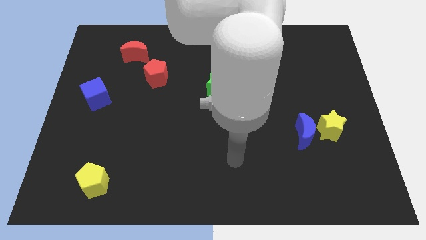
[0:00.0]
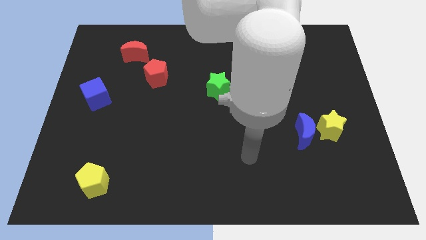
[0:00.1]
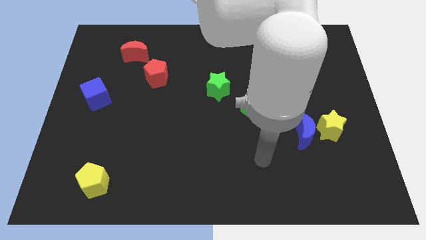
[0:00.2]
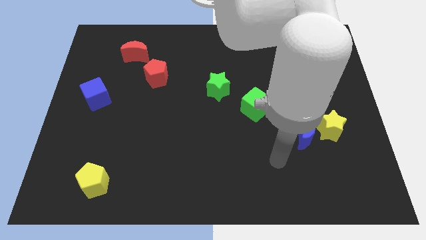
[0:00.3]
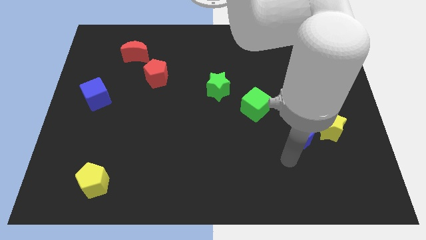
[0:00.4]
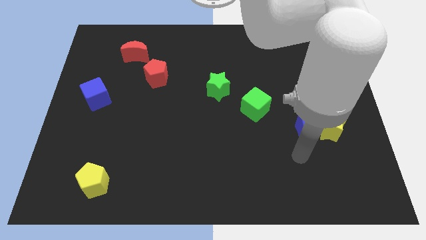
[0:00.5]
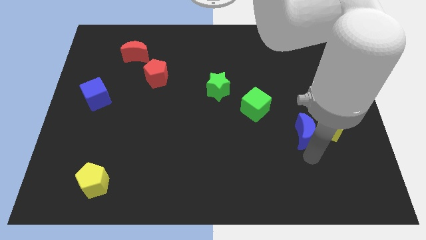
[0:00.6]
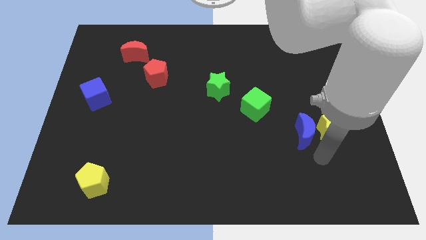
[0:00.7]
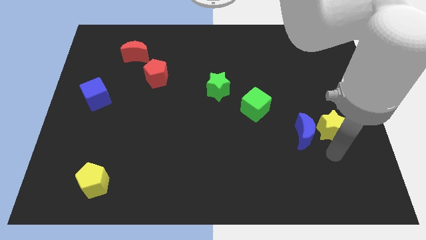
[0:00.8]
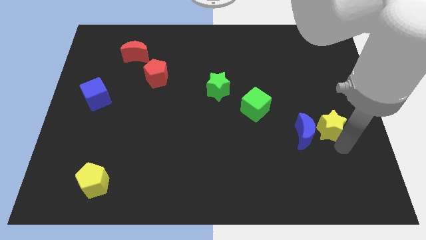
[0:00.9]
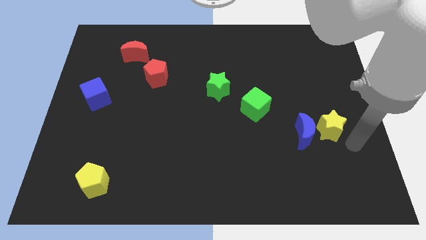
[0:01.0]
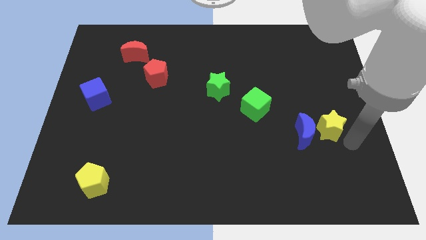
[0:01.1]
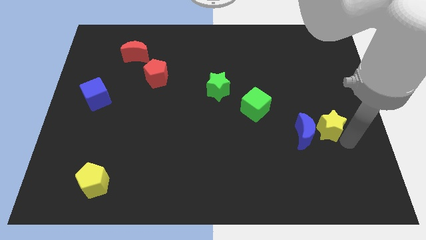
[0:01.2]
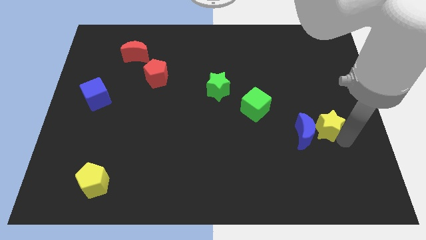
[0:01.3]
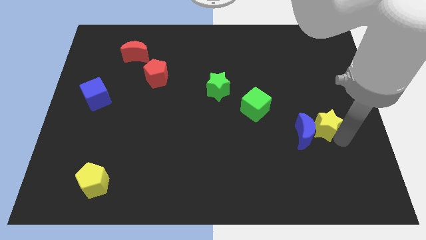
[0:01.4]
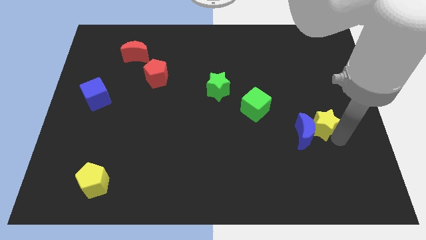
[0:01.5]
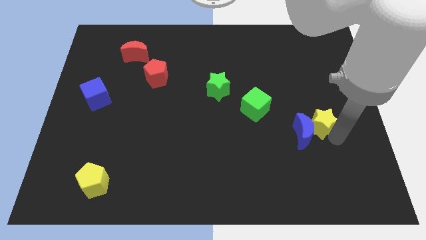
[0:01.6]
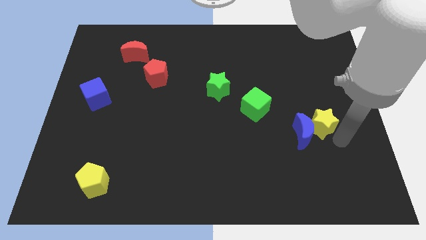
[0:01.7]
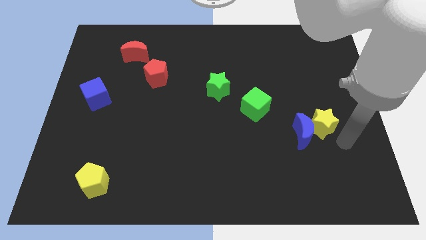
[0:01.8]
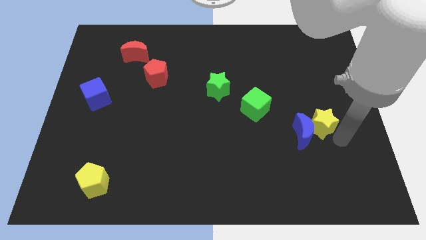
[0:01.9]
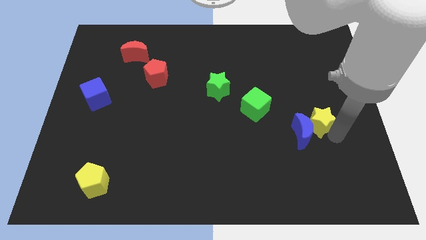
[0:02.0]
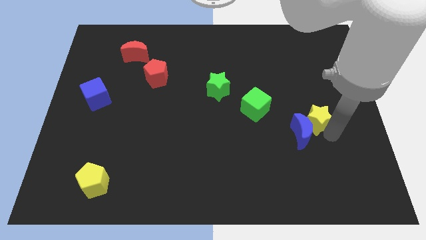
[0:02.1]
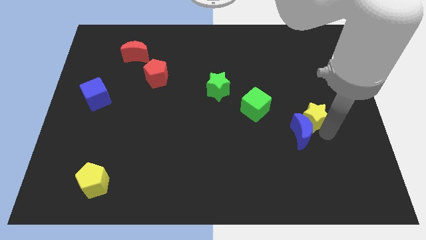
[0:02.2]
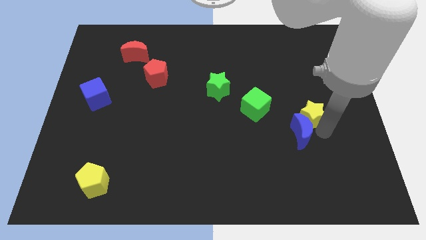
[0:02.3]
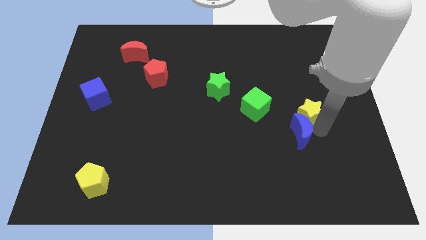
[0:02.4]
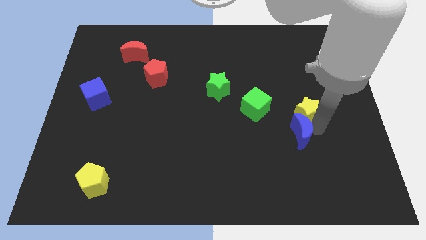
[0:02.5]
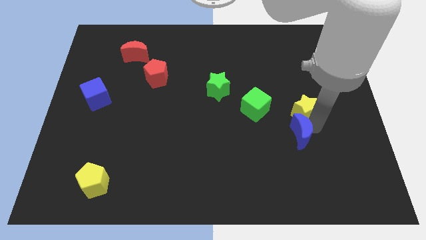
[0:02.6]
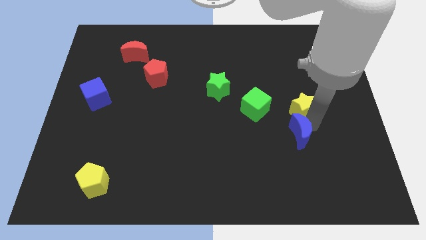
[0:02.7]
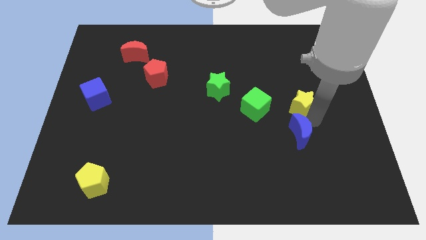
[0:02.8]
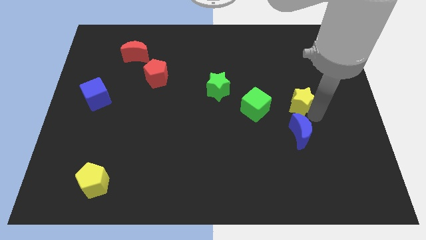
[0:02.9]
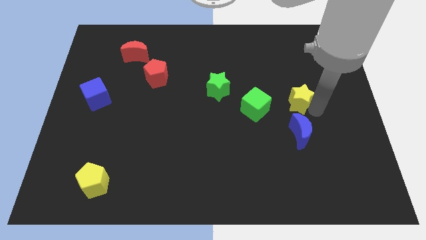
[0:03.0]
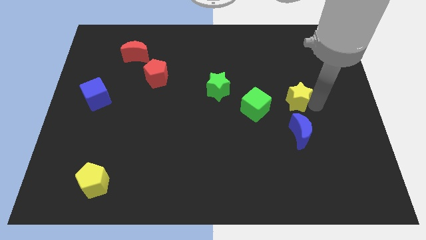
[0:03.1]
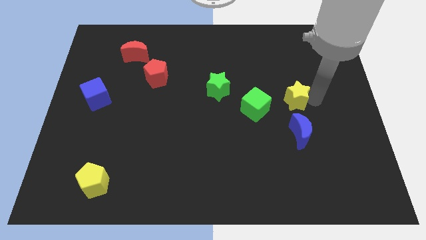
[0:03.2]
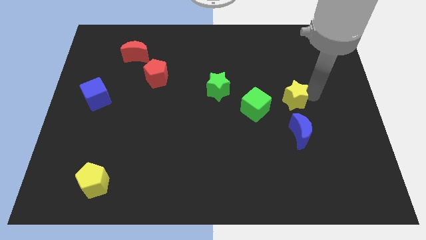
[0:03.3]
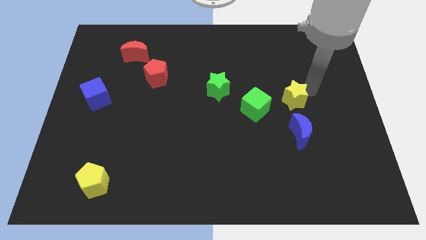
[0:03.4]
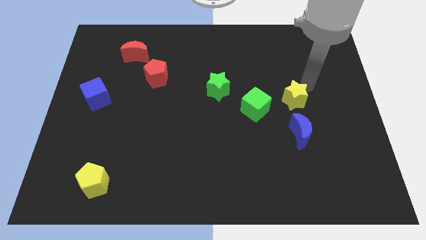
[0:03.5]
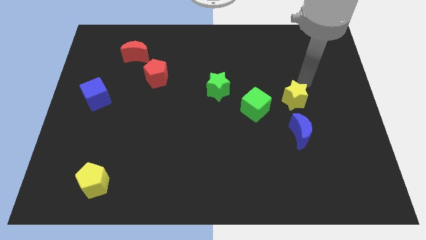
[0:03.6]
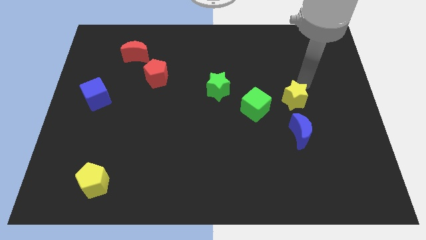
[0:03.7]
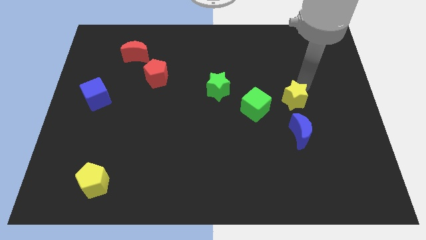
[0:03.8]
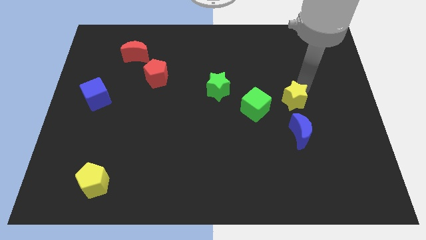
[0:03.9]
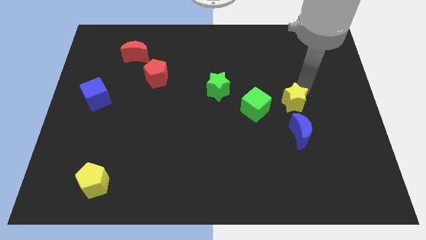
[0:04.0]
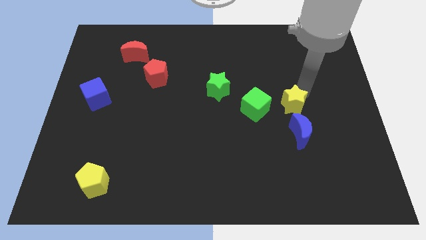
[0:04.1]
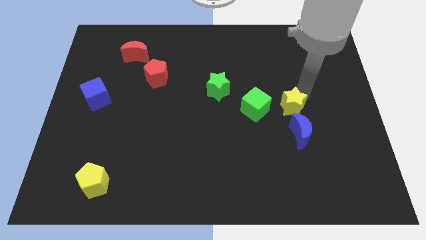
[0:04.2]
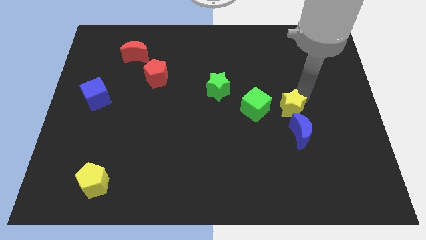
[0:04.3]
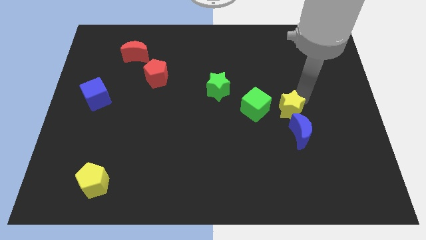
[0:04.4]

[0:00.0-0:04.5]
slightly slide the yellow star left

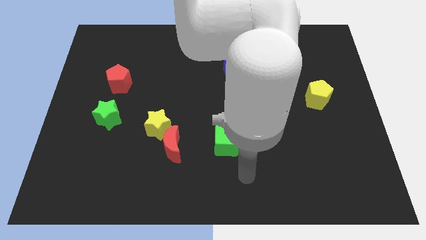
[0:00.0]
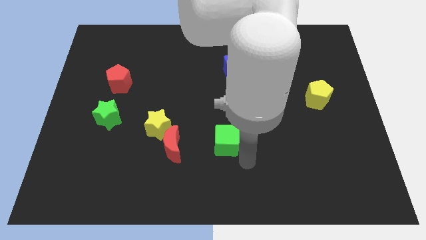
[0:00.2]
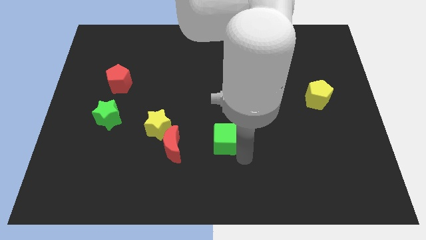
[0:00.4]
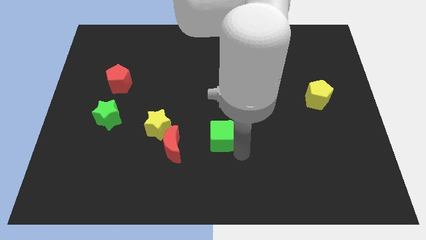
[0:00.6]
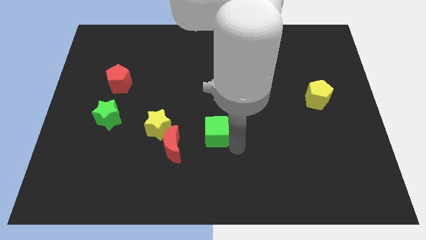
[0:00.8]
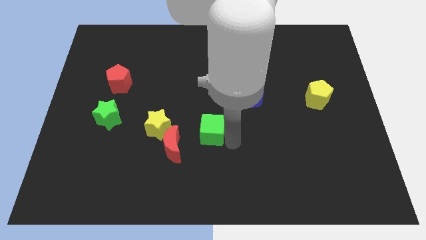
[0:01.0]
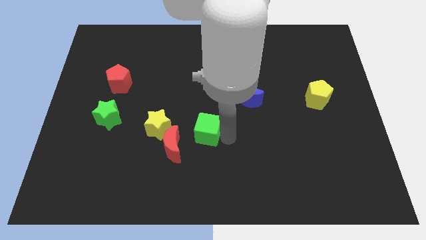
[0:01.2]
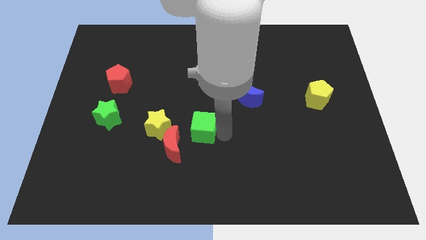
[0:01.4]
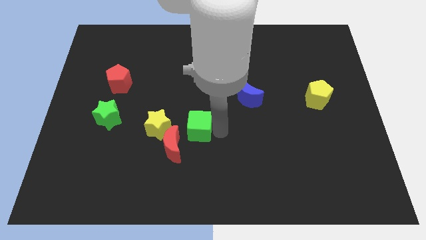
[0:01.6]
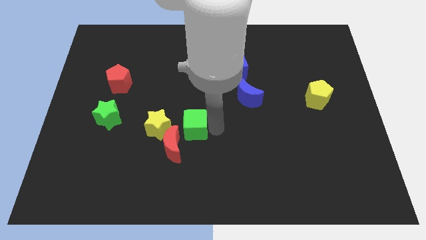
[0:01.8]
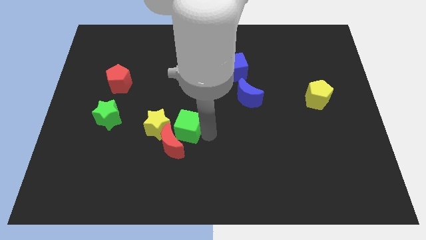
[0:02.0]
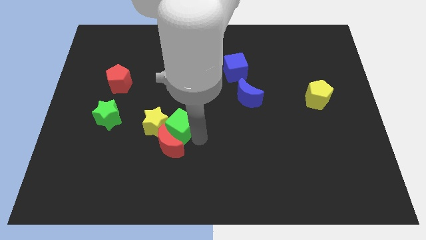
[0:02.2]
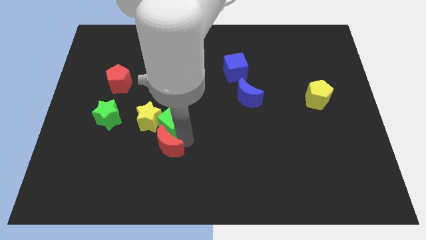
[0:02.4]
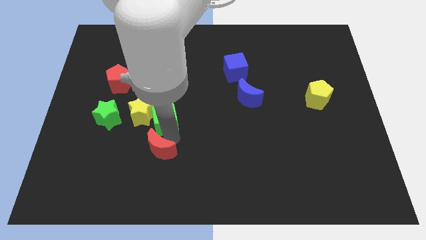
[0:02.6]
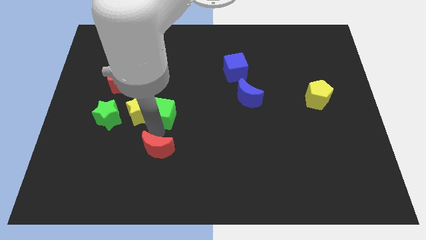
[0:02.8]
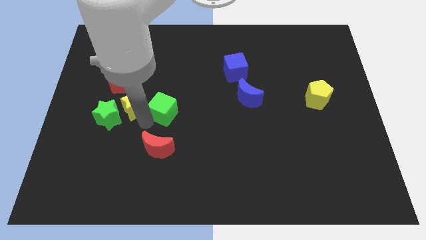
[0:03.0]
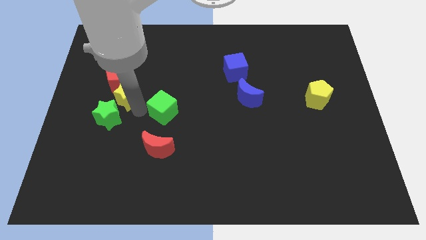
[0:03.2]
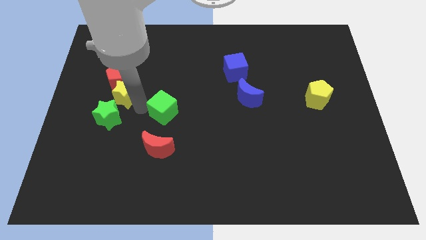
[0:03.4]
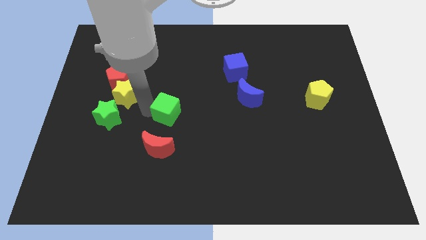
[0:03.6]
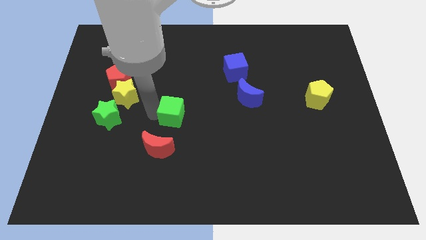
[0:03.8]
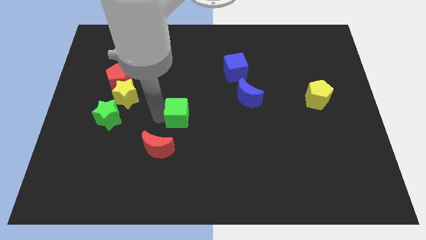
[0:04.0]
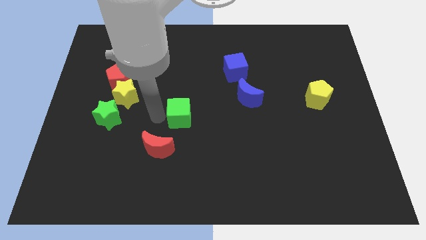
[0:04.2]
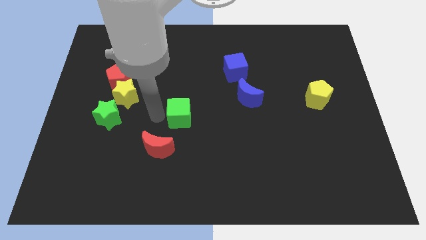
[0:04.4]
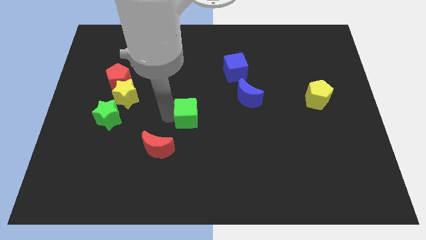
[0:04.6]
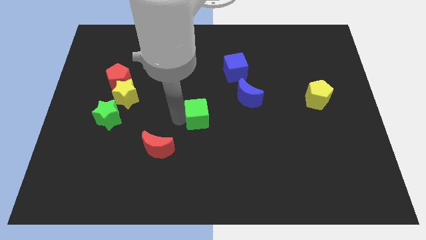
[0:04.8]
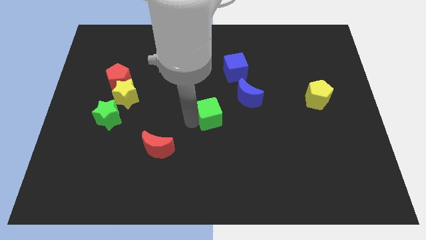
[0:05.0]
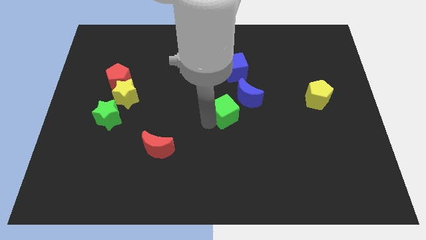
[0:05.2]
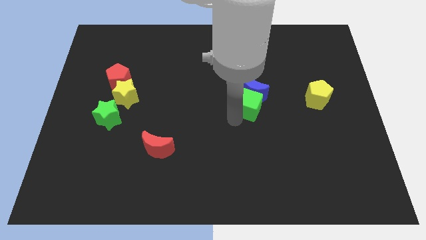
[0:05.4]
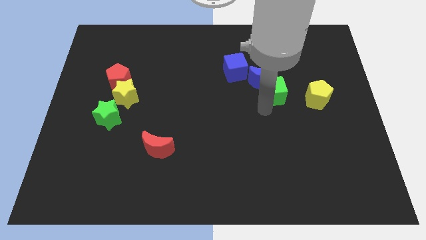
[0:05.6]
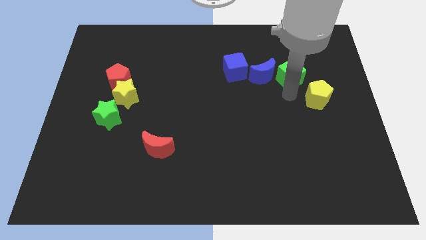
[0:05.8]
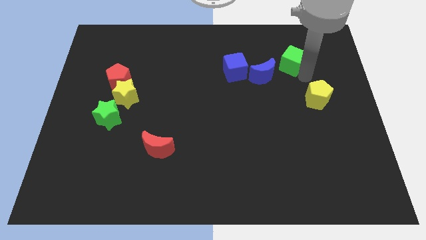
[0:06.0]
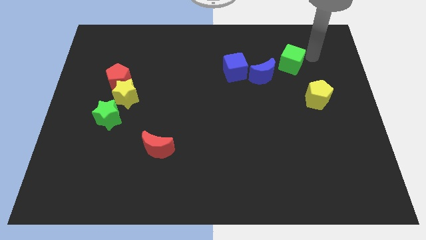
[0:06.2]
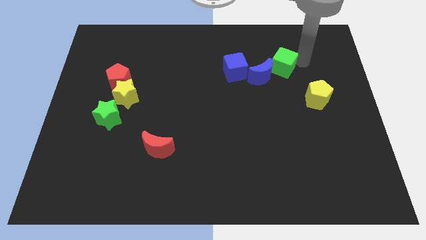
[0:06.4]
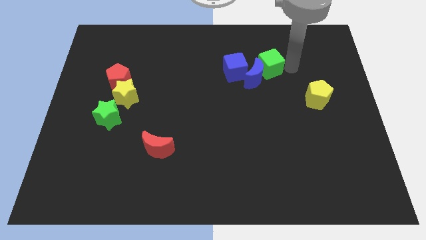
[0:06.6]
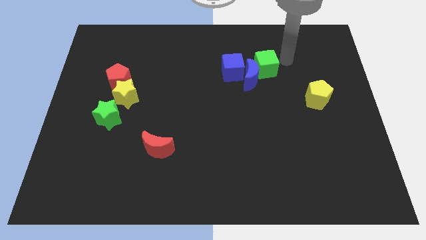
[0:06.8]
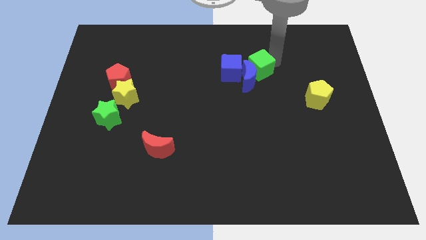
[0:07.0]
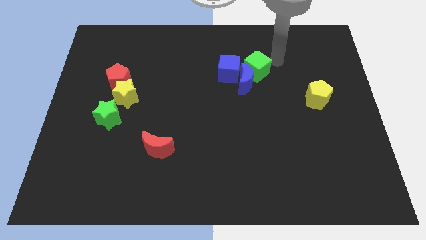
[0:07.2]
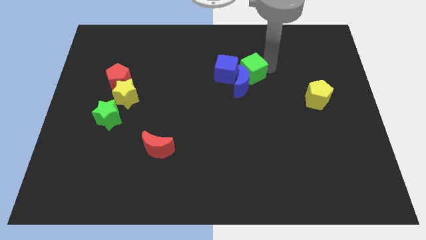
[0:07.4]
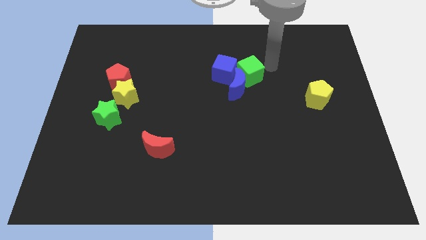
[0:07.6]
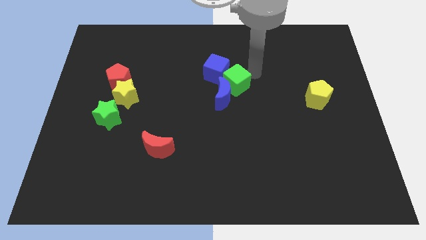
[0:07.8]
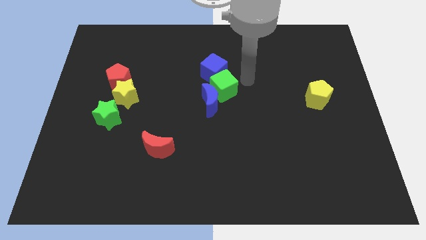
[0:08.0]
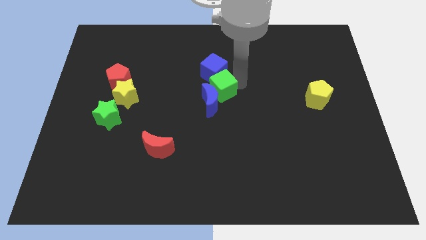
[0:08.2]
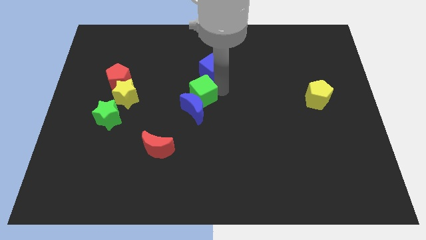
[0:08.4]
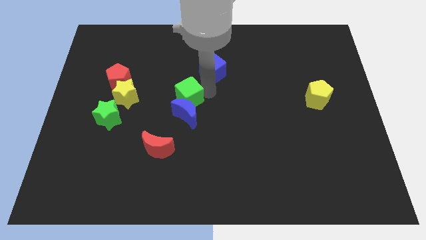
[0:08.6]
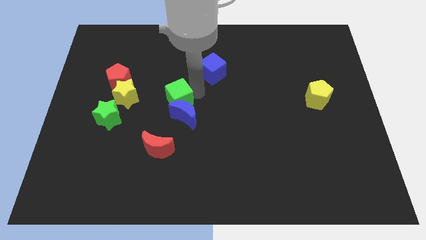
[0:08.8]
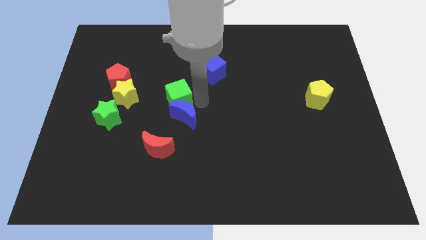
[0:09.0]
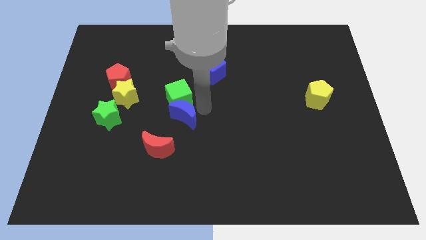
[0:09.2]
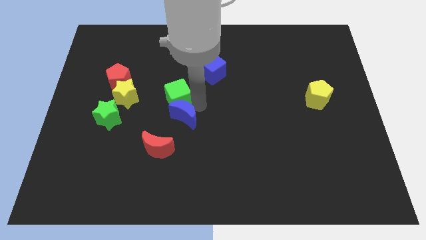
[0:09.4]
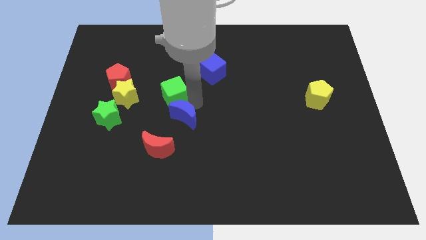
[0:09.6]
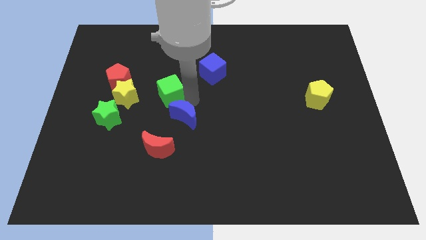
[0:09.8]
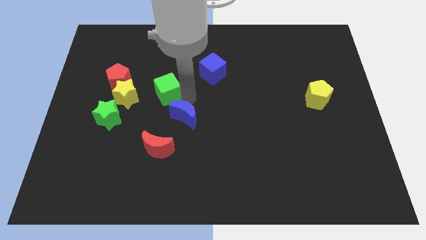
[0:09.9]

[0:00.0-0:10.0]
move the green cube up and left diagonally
